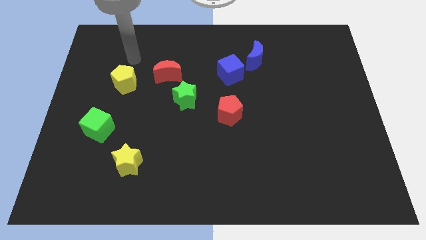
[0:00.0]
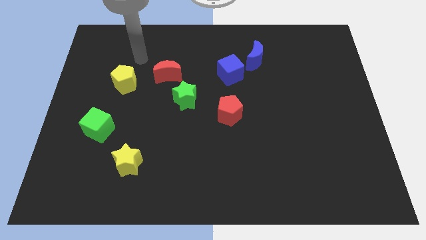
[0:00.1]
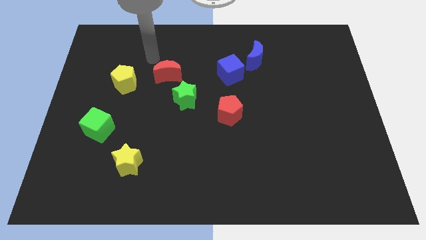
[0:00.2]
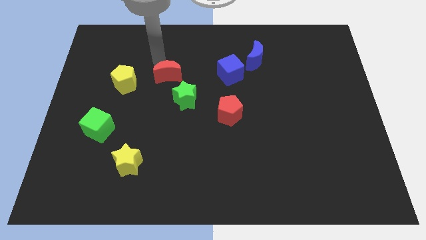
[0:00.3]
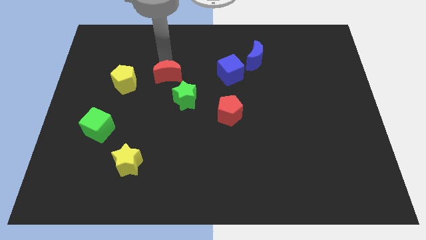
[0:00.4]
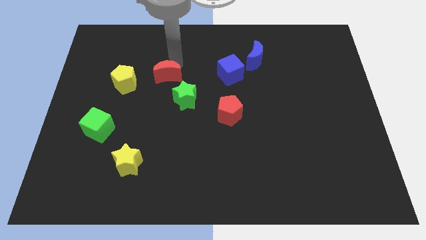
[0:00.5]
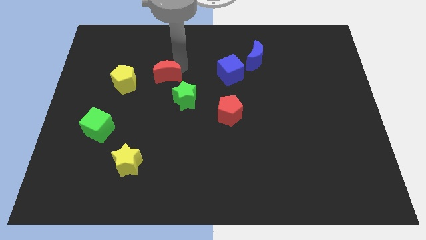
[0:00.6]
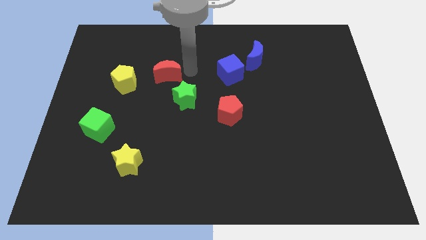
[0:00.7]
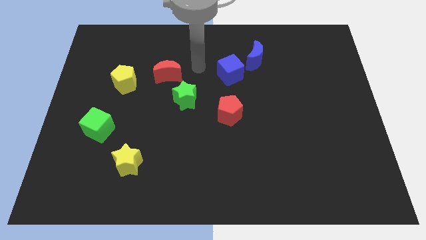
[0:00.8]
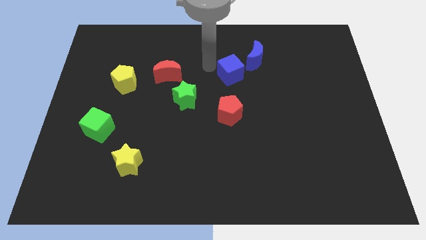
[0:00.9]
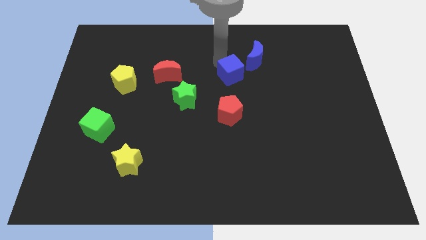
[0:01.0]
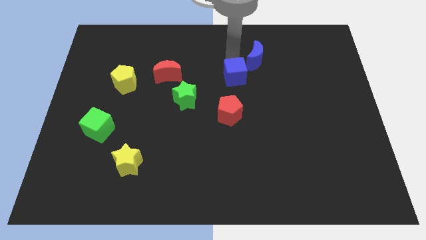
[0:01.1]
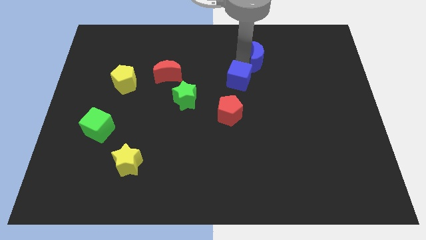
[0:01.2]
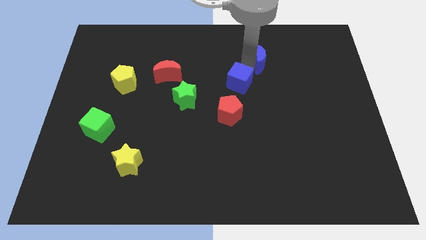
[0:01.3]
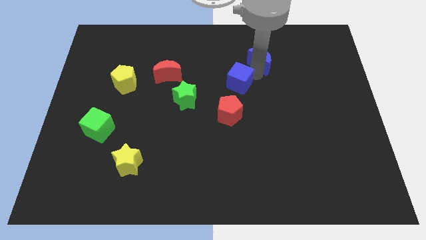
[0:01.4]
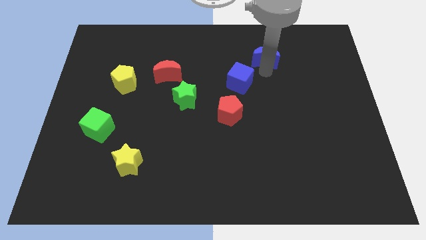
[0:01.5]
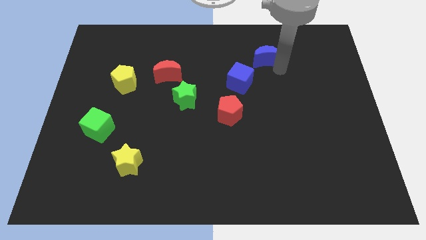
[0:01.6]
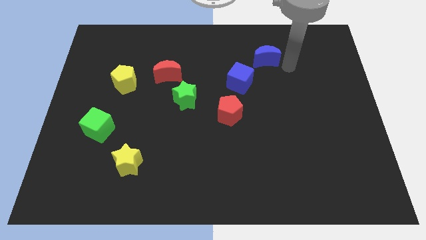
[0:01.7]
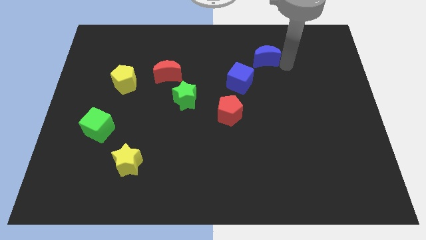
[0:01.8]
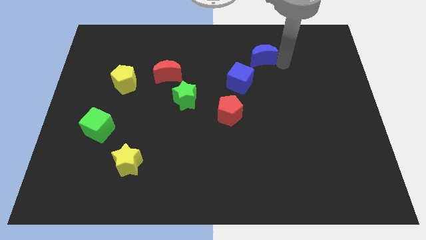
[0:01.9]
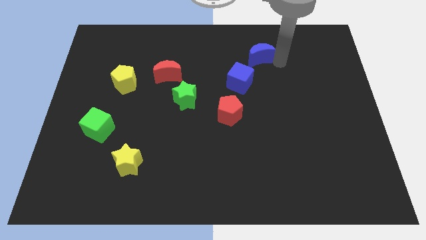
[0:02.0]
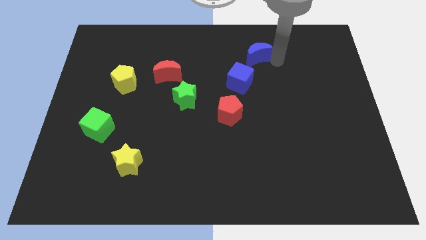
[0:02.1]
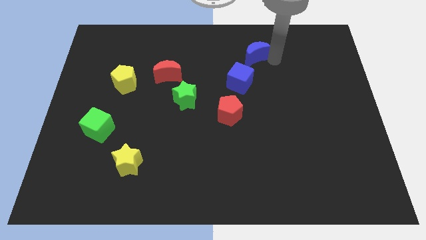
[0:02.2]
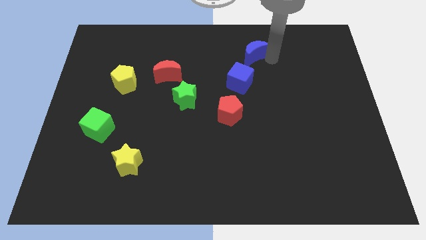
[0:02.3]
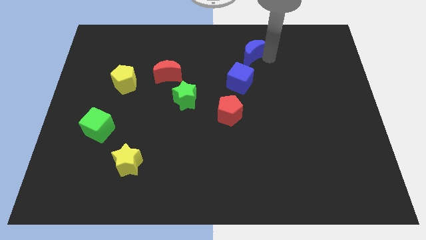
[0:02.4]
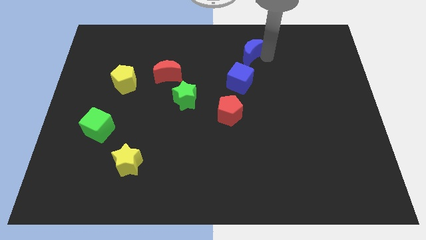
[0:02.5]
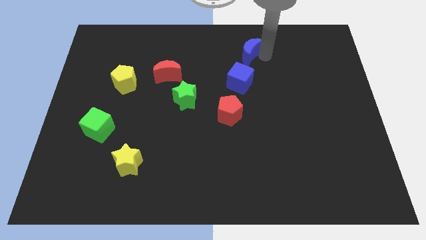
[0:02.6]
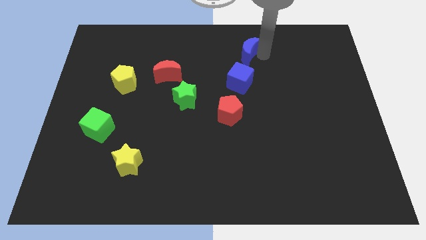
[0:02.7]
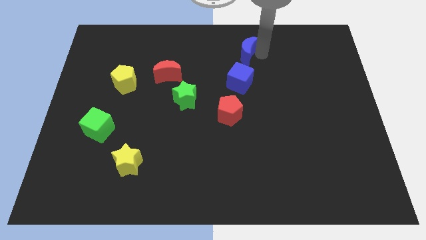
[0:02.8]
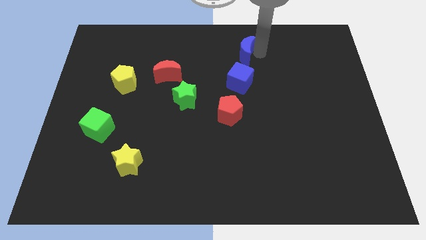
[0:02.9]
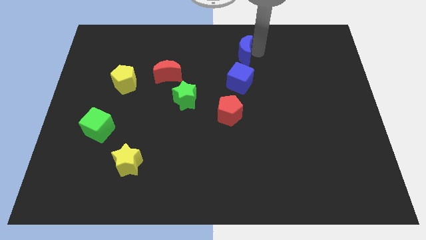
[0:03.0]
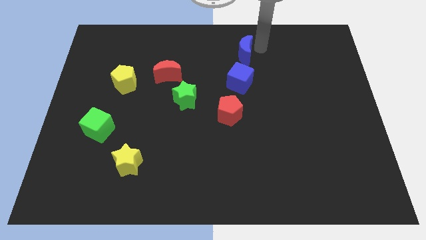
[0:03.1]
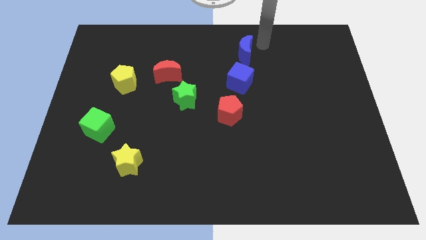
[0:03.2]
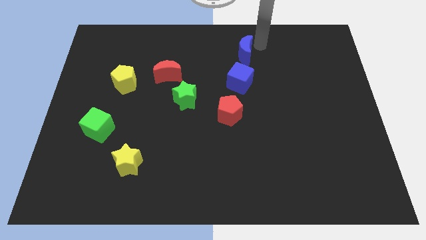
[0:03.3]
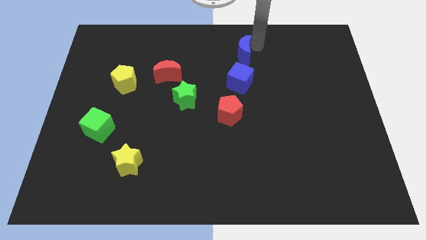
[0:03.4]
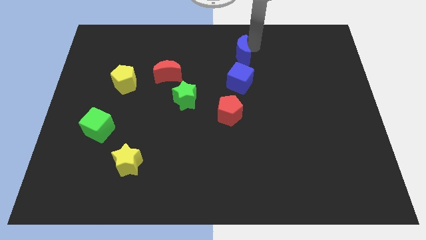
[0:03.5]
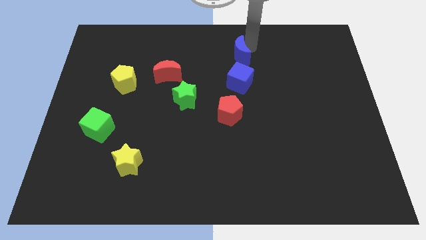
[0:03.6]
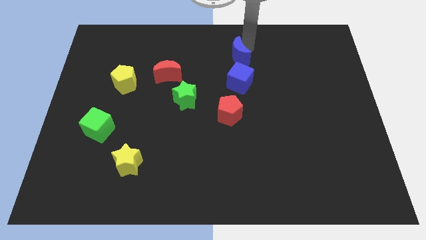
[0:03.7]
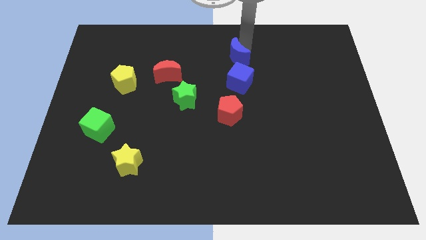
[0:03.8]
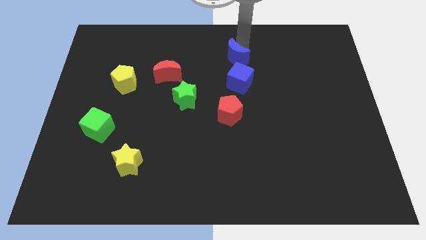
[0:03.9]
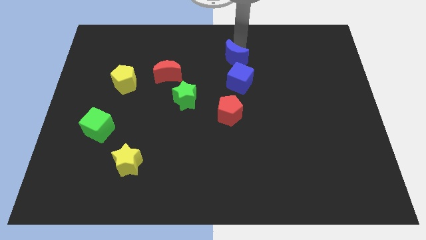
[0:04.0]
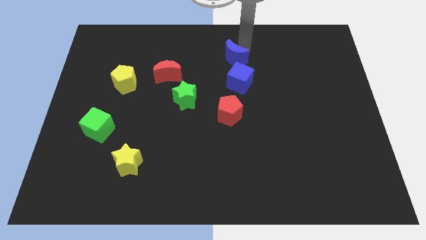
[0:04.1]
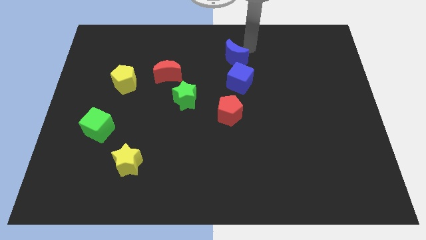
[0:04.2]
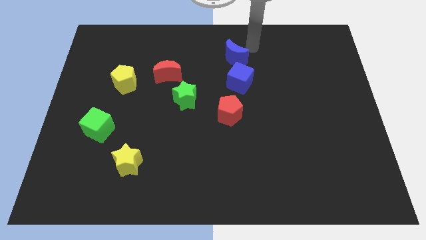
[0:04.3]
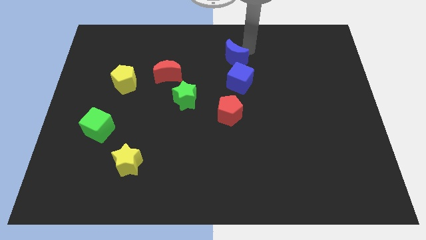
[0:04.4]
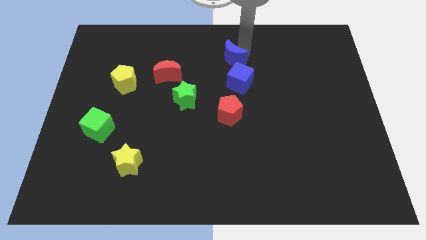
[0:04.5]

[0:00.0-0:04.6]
slide the blue moon diagonally up and to the left of the blue cube

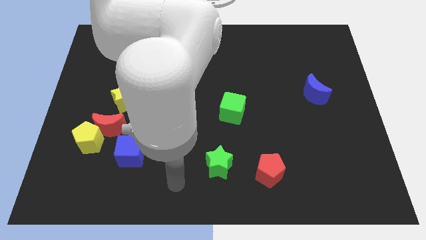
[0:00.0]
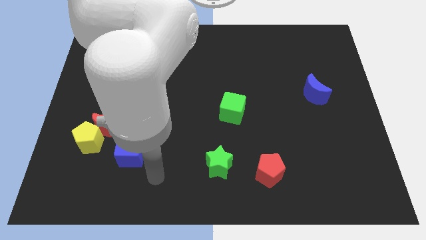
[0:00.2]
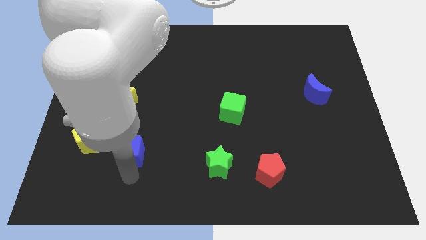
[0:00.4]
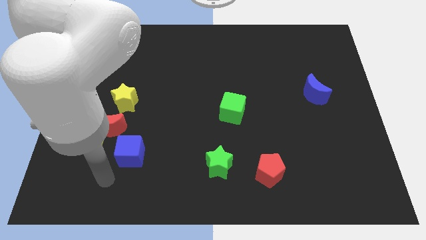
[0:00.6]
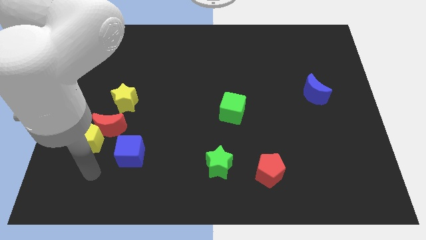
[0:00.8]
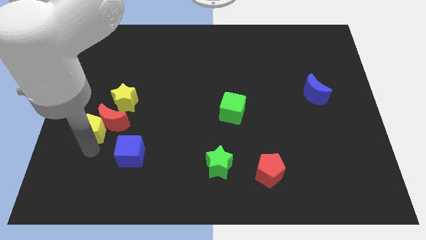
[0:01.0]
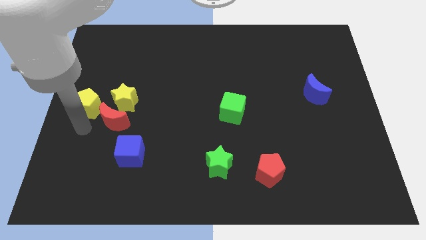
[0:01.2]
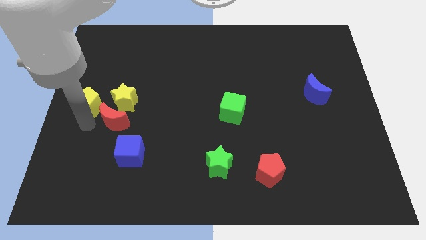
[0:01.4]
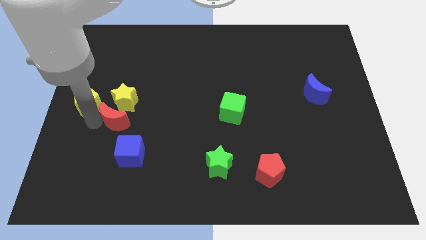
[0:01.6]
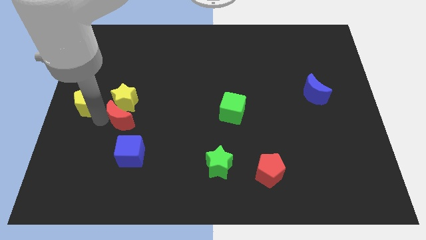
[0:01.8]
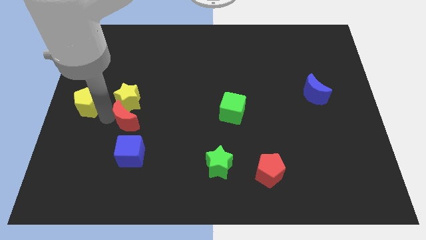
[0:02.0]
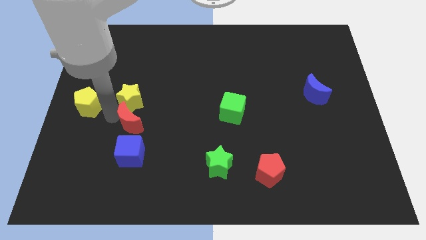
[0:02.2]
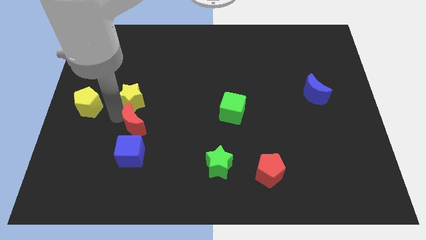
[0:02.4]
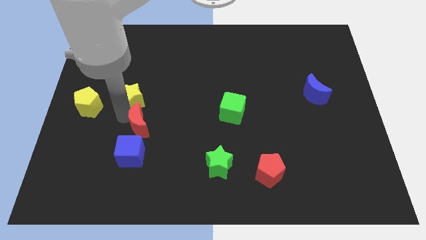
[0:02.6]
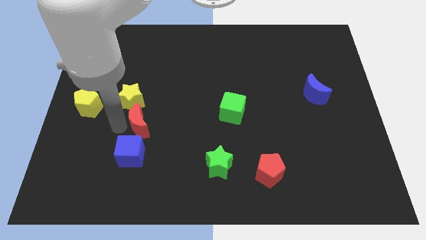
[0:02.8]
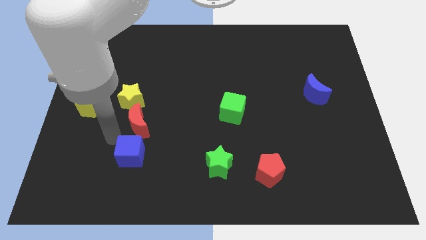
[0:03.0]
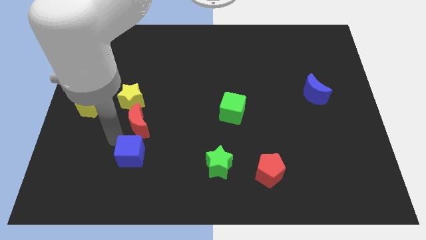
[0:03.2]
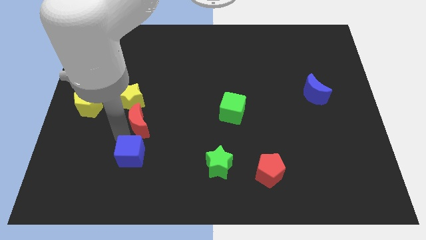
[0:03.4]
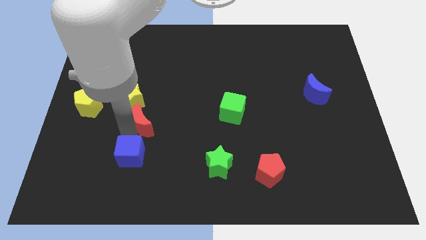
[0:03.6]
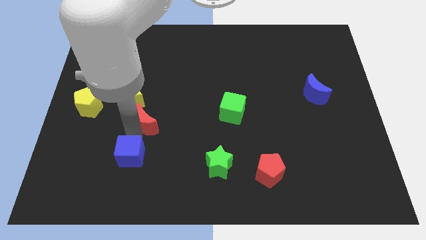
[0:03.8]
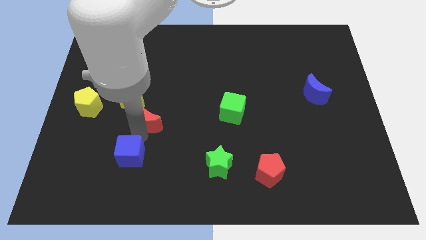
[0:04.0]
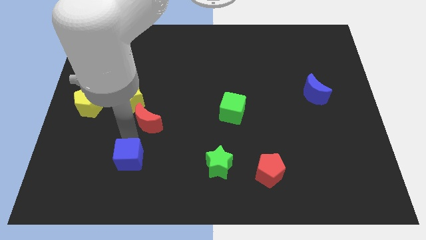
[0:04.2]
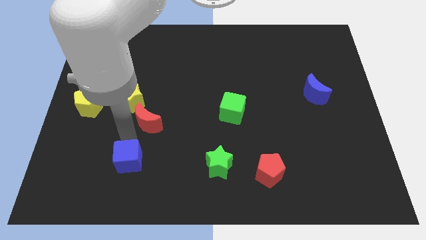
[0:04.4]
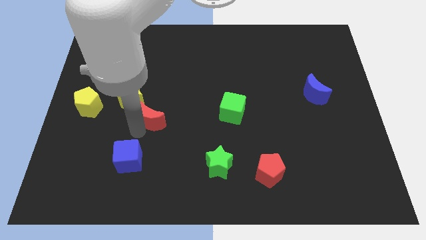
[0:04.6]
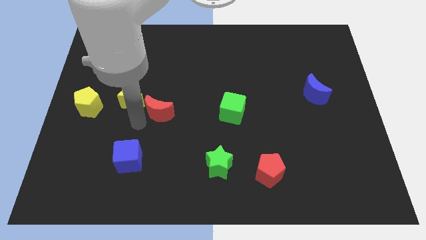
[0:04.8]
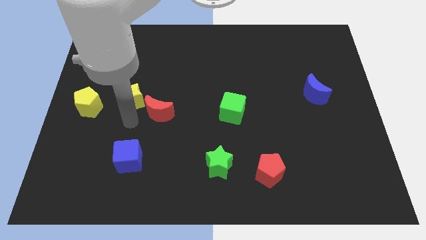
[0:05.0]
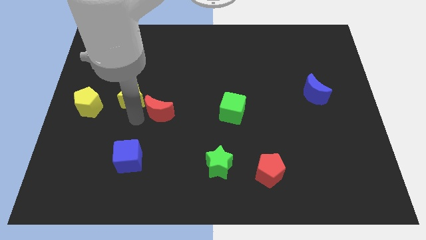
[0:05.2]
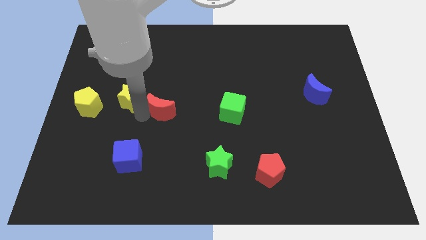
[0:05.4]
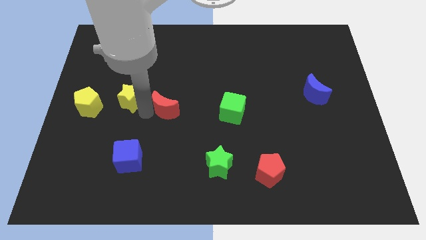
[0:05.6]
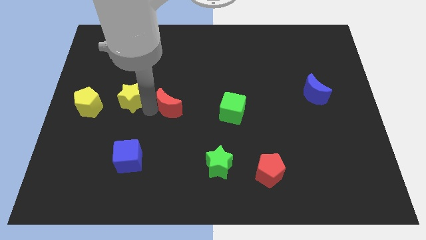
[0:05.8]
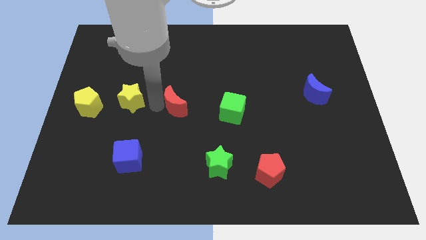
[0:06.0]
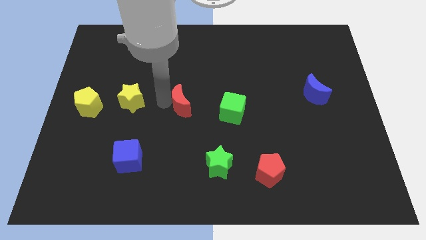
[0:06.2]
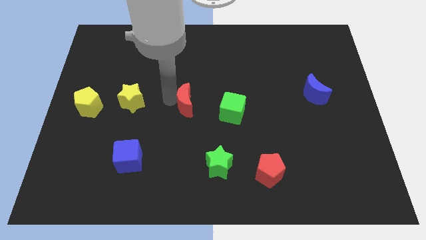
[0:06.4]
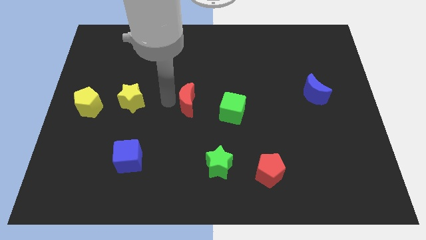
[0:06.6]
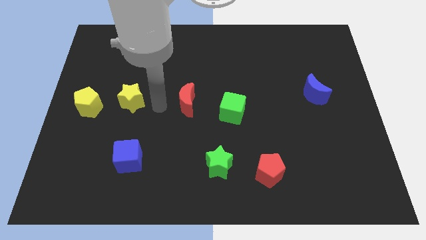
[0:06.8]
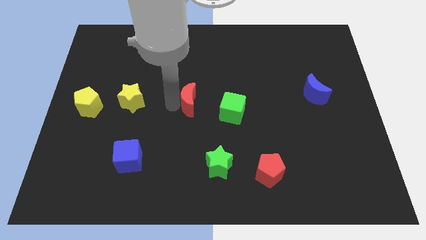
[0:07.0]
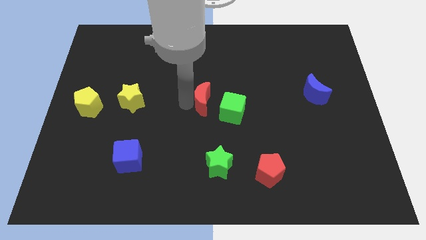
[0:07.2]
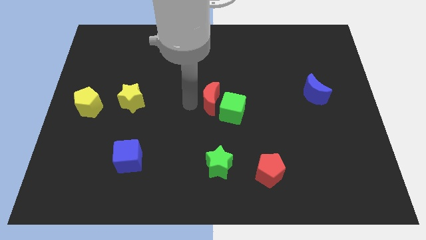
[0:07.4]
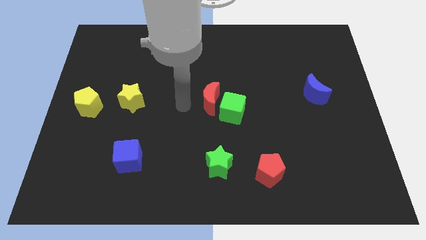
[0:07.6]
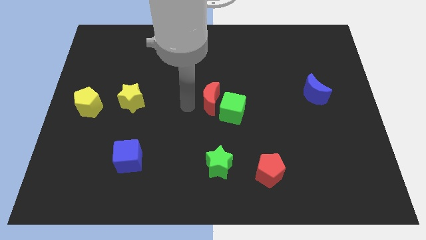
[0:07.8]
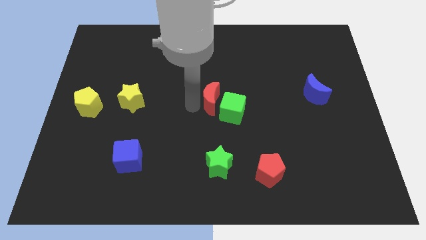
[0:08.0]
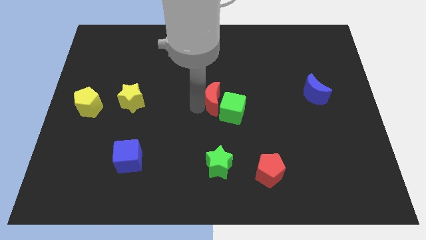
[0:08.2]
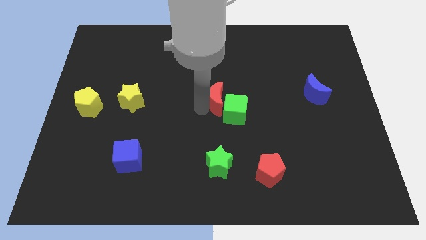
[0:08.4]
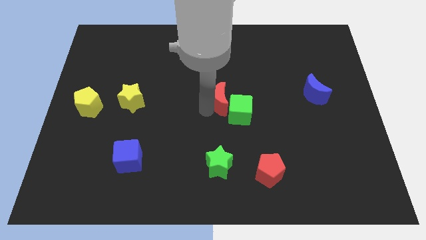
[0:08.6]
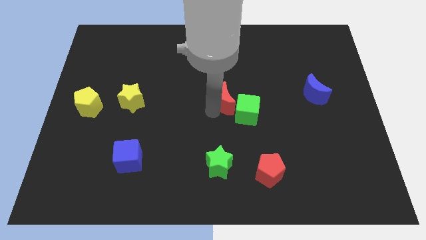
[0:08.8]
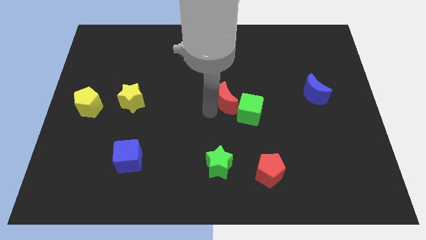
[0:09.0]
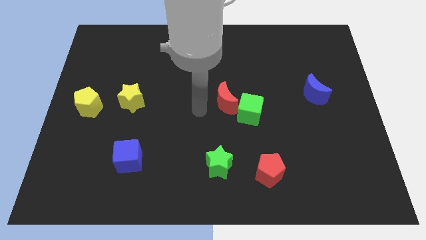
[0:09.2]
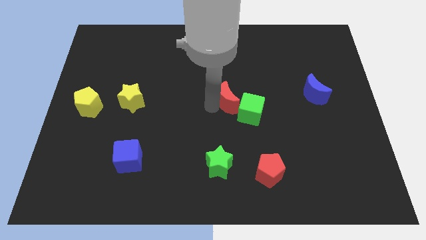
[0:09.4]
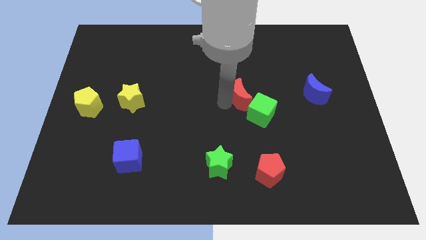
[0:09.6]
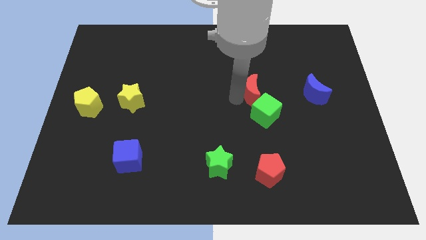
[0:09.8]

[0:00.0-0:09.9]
move the red moon just left of the blue moon
